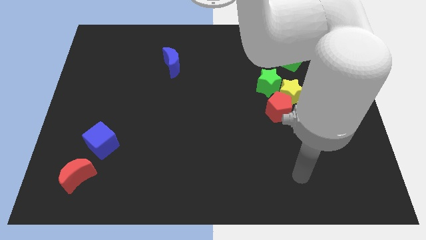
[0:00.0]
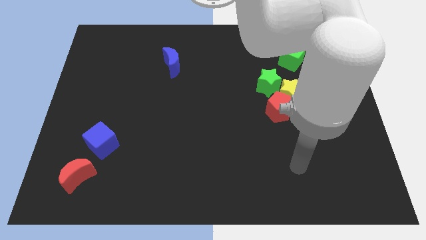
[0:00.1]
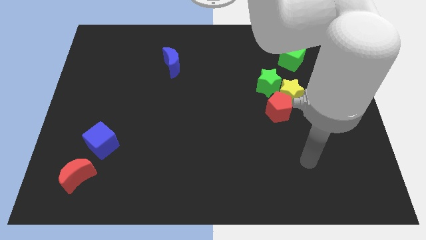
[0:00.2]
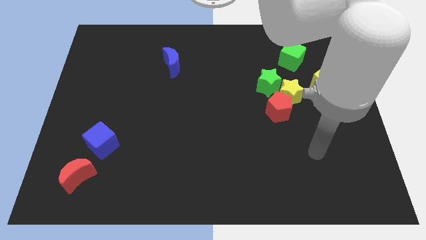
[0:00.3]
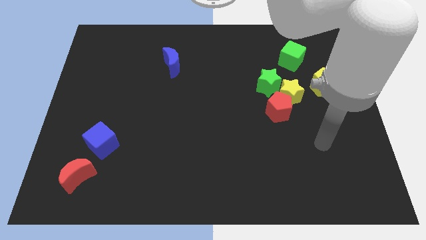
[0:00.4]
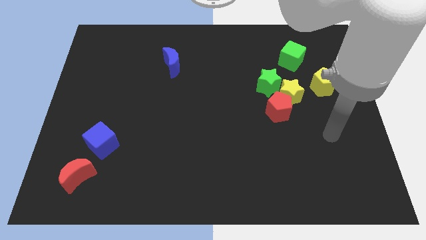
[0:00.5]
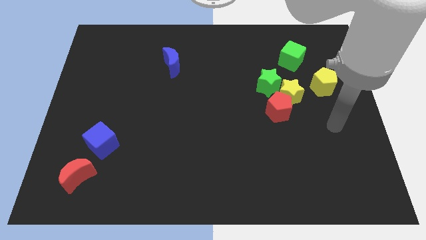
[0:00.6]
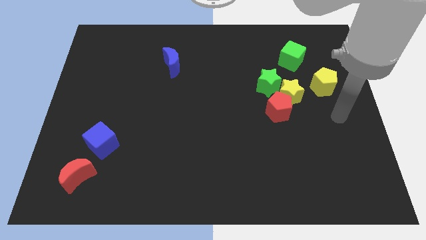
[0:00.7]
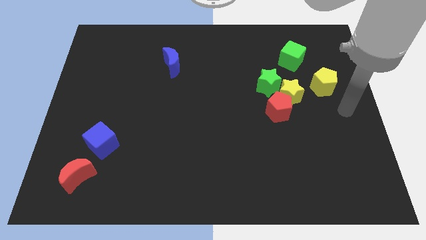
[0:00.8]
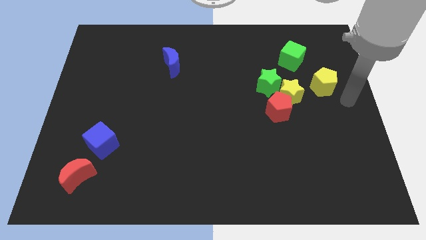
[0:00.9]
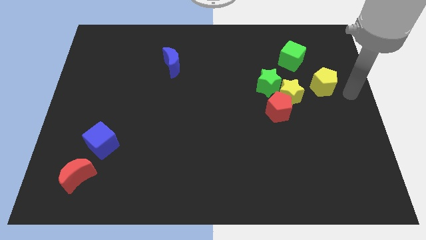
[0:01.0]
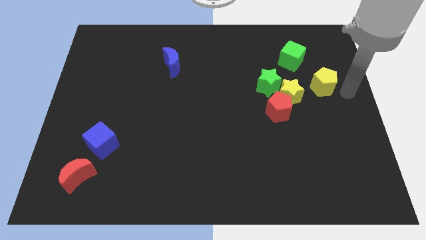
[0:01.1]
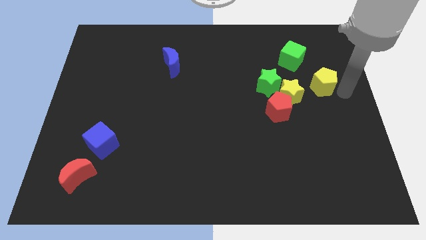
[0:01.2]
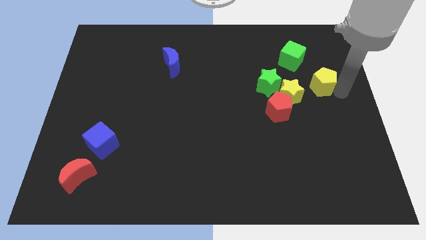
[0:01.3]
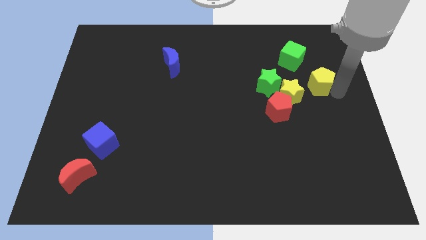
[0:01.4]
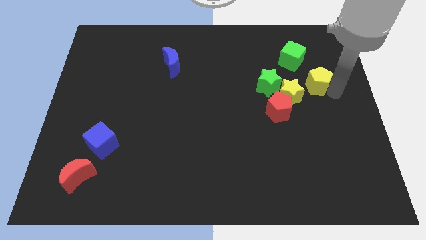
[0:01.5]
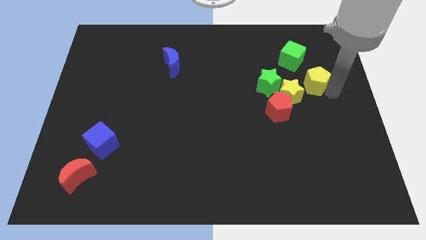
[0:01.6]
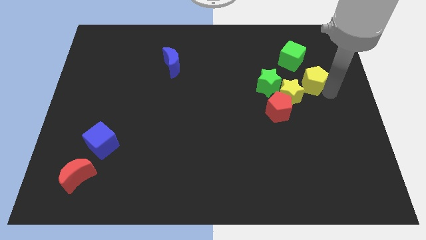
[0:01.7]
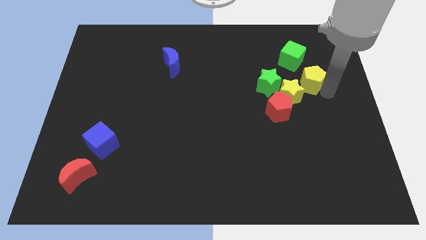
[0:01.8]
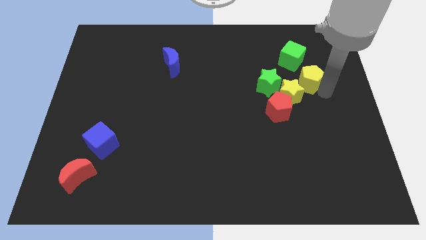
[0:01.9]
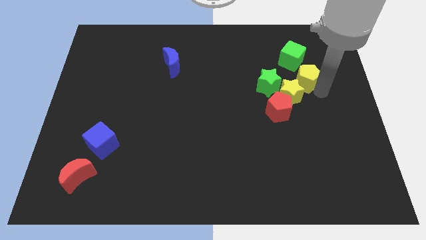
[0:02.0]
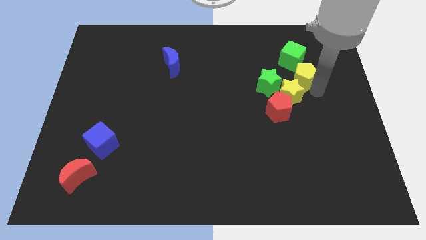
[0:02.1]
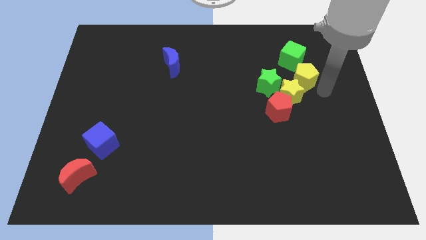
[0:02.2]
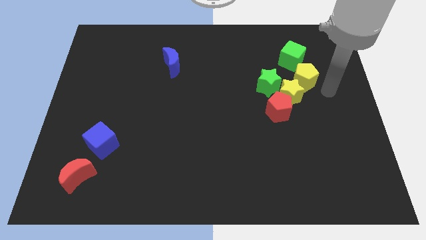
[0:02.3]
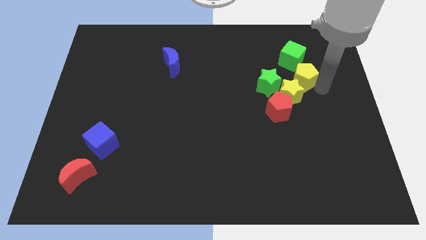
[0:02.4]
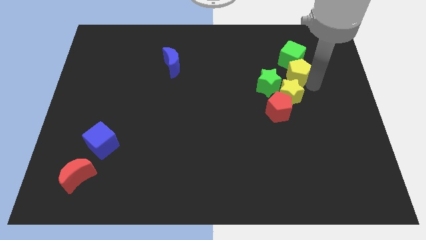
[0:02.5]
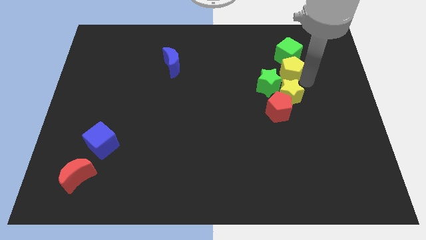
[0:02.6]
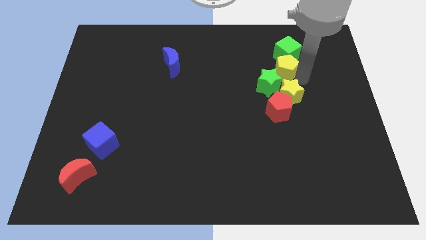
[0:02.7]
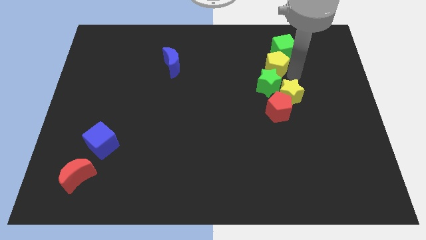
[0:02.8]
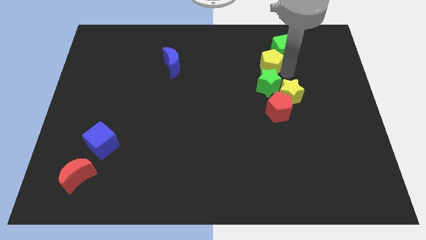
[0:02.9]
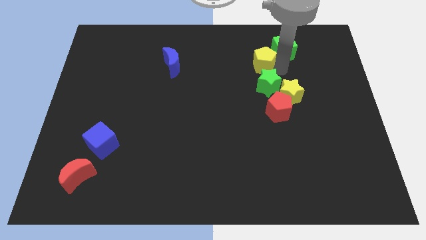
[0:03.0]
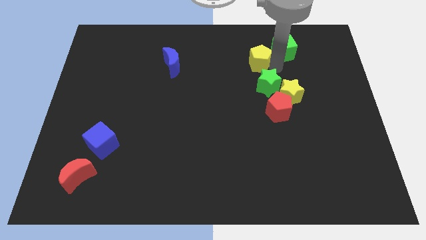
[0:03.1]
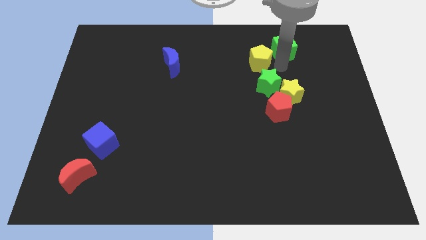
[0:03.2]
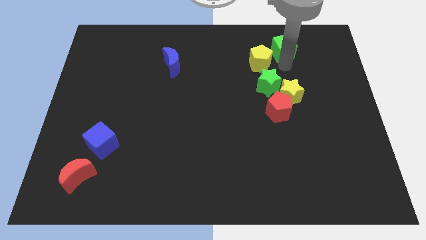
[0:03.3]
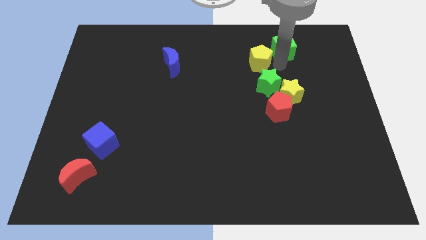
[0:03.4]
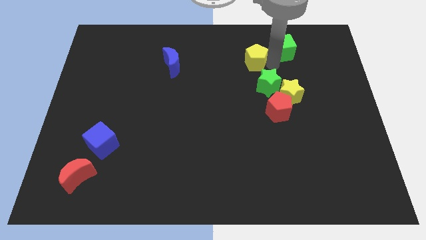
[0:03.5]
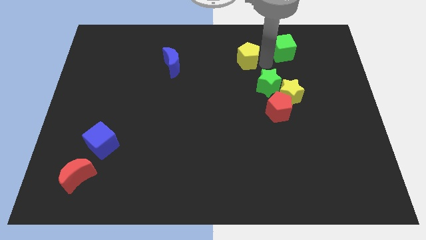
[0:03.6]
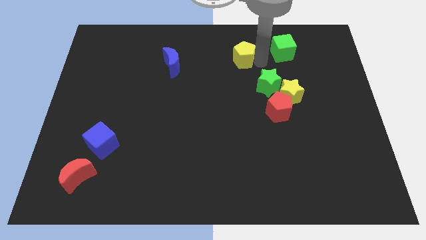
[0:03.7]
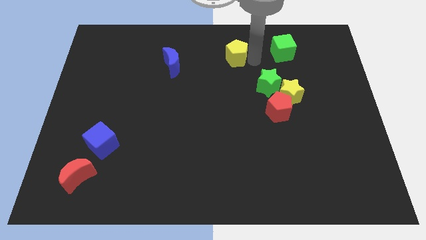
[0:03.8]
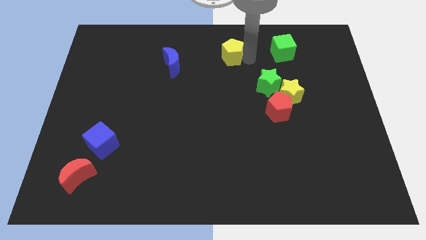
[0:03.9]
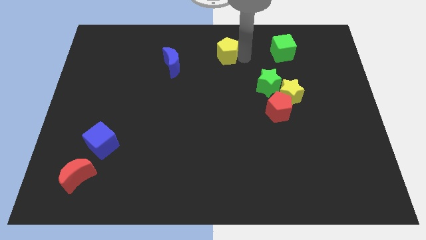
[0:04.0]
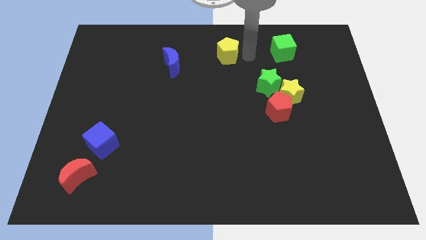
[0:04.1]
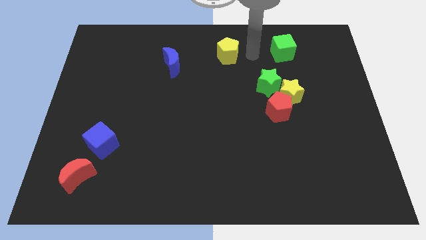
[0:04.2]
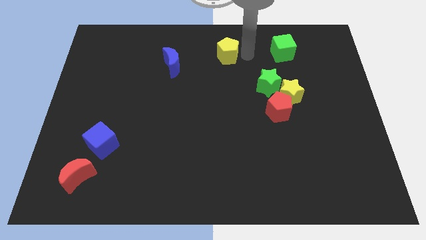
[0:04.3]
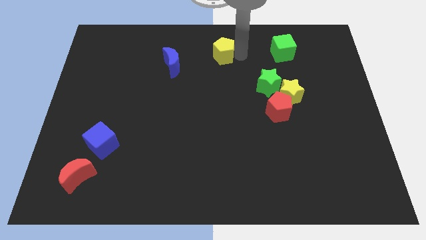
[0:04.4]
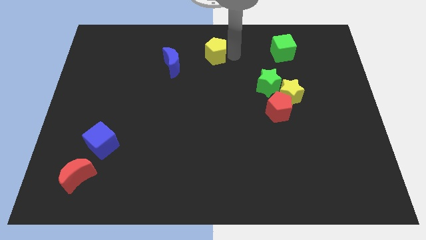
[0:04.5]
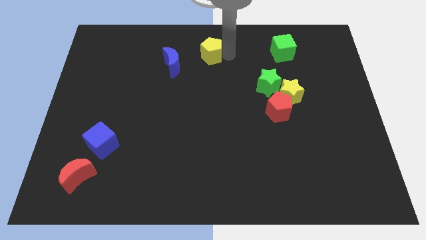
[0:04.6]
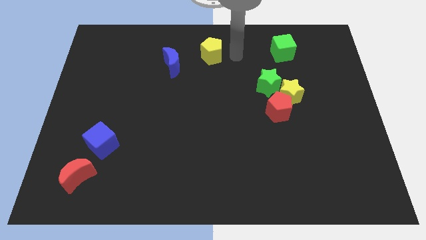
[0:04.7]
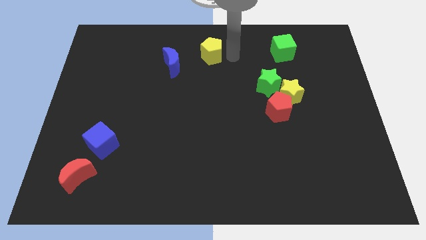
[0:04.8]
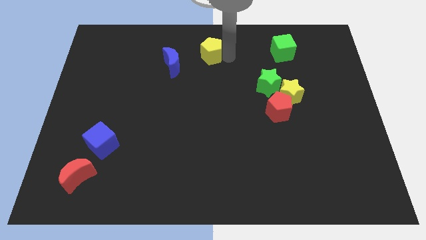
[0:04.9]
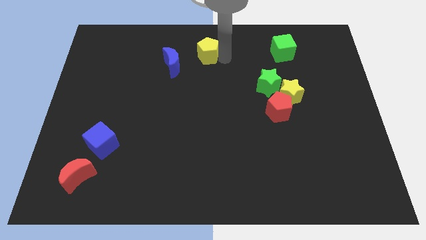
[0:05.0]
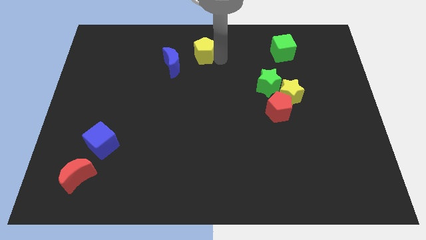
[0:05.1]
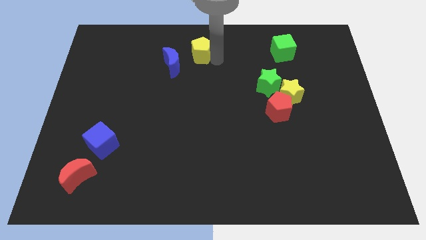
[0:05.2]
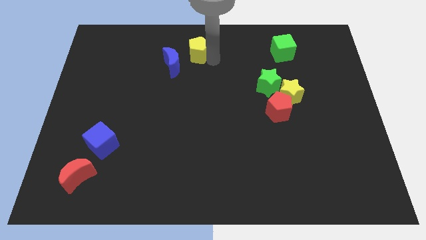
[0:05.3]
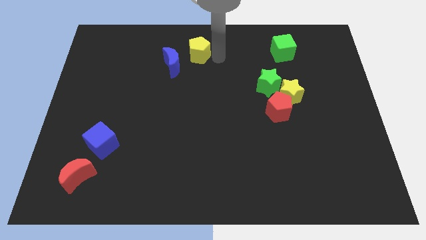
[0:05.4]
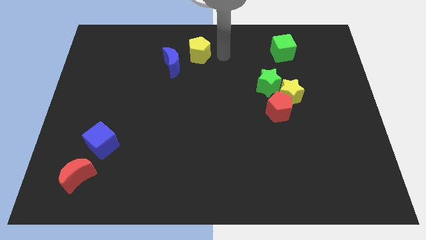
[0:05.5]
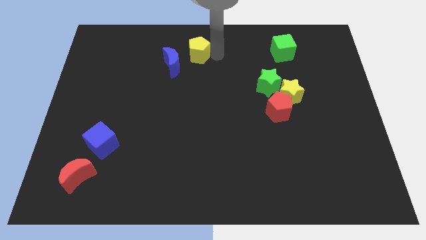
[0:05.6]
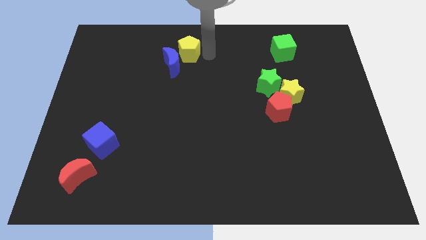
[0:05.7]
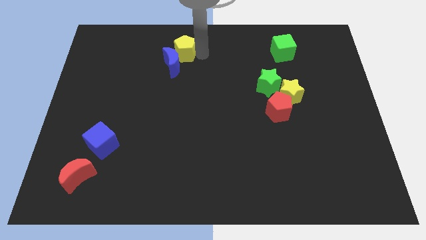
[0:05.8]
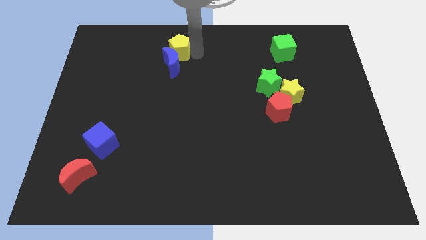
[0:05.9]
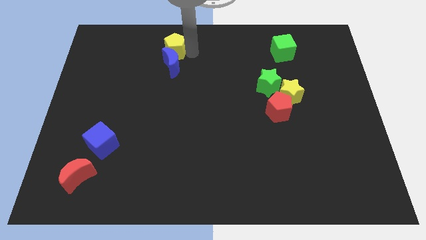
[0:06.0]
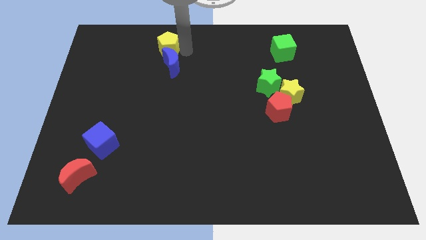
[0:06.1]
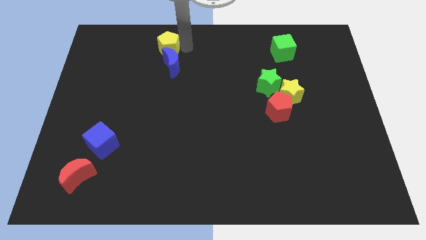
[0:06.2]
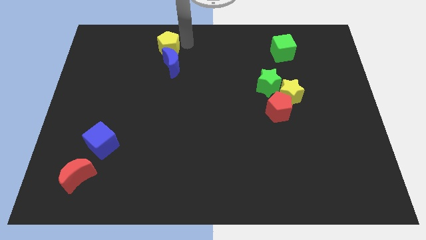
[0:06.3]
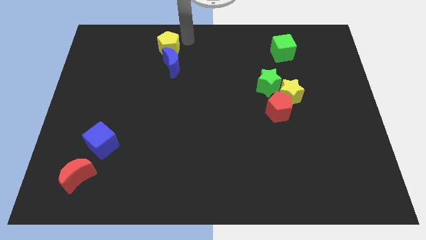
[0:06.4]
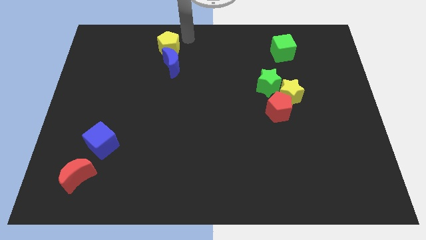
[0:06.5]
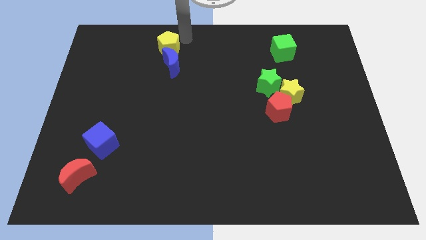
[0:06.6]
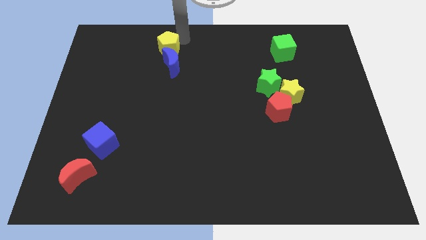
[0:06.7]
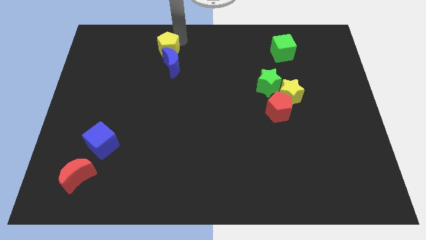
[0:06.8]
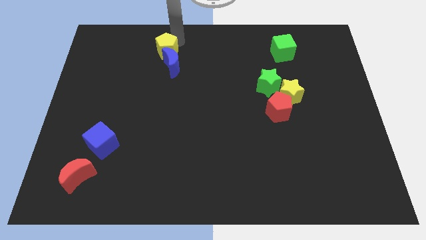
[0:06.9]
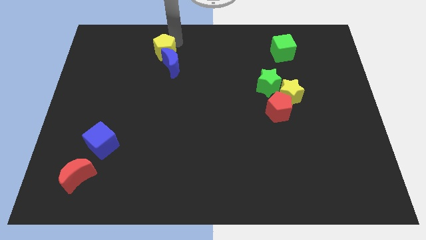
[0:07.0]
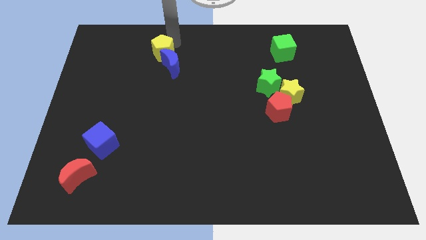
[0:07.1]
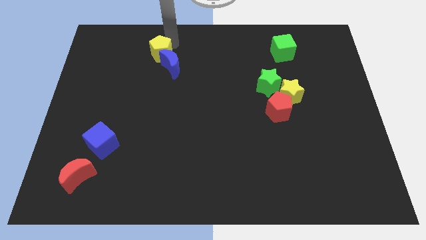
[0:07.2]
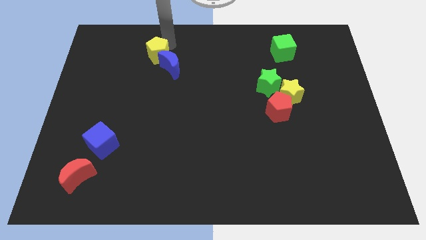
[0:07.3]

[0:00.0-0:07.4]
put the yellow pentagon to the left of the blue moon

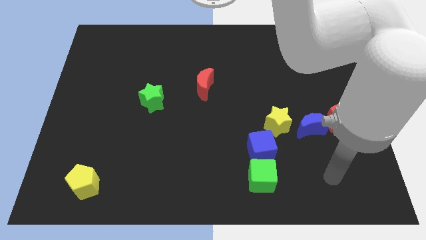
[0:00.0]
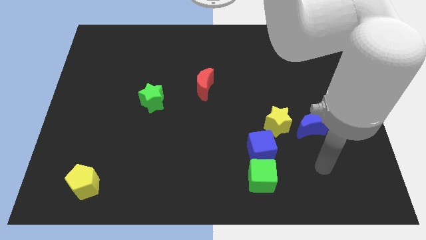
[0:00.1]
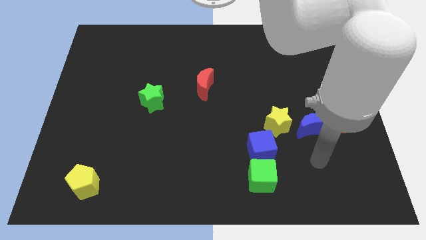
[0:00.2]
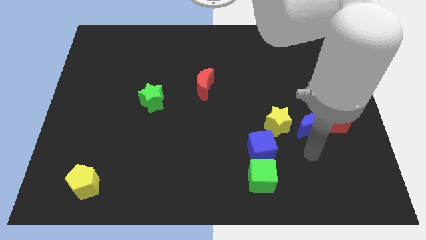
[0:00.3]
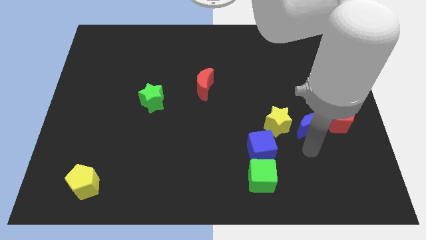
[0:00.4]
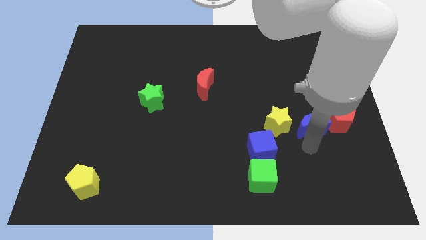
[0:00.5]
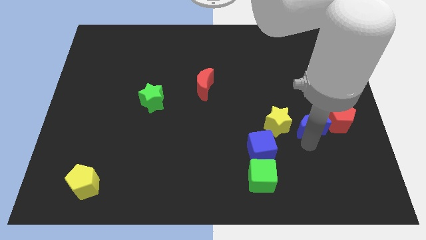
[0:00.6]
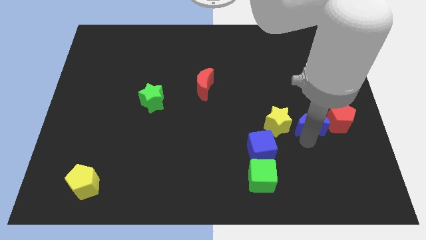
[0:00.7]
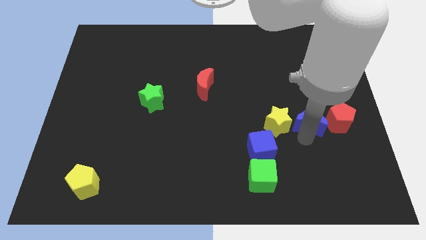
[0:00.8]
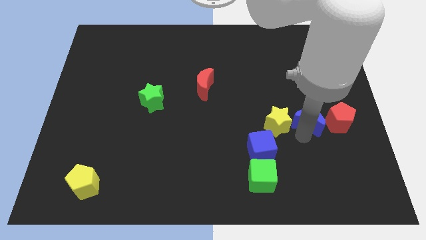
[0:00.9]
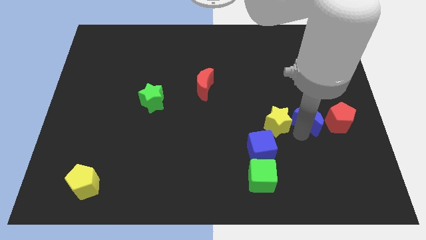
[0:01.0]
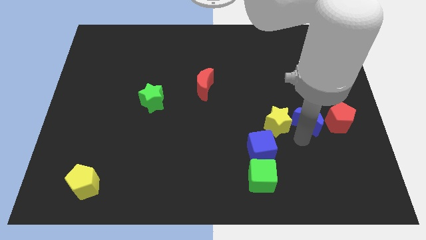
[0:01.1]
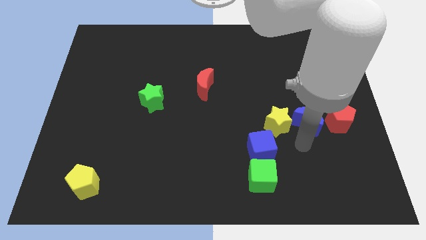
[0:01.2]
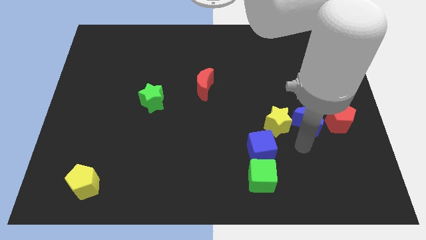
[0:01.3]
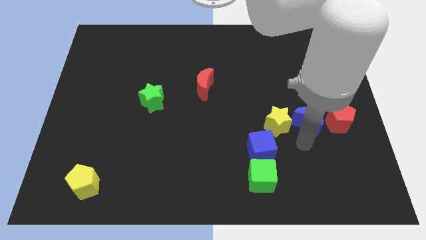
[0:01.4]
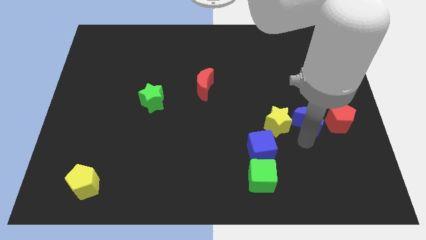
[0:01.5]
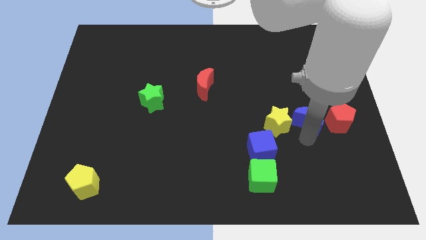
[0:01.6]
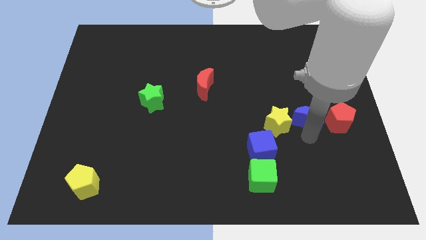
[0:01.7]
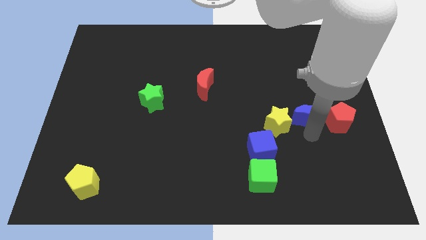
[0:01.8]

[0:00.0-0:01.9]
slide the blue moon to the top left side of the red pentagon
